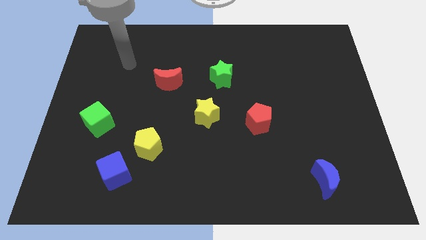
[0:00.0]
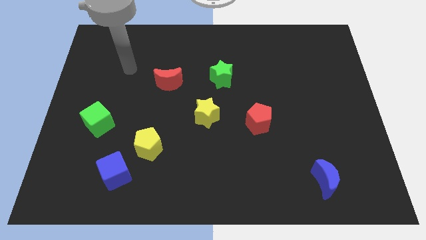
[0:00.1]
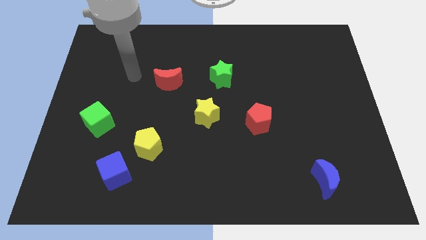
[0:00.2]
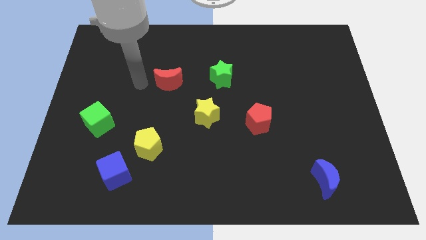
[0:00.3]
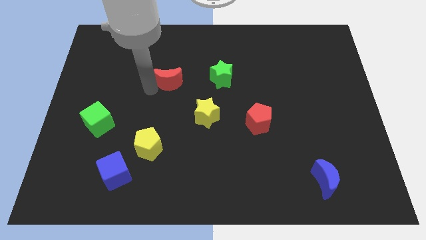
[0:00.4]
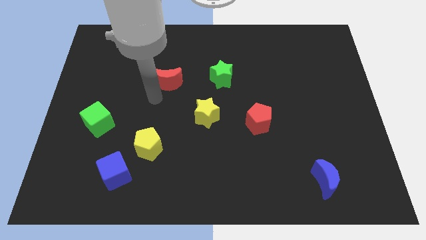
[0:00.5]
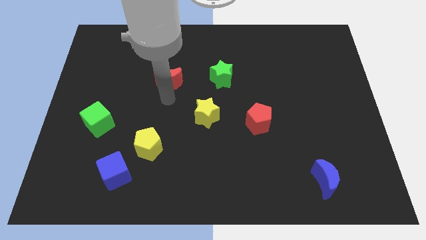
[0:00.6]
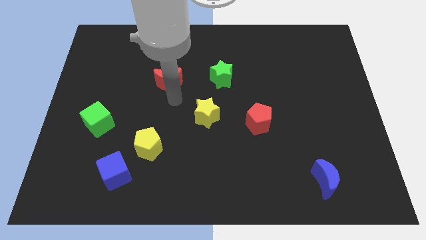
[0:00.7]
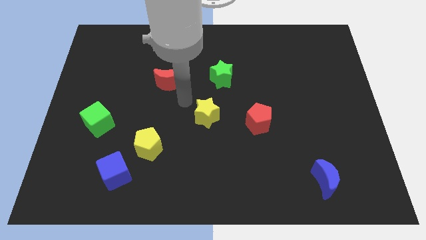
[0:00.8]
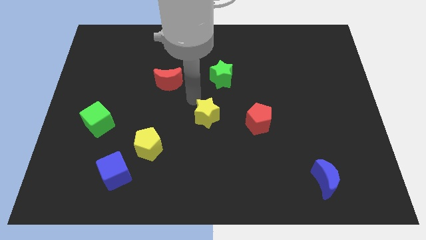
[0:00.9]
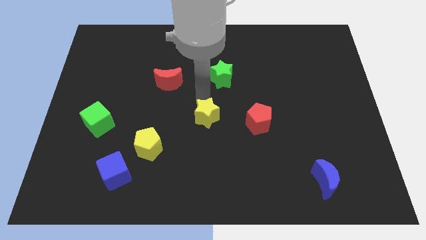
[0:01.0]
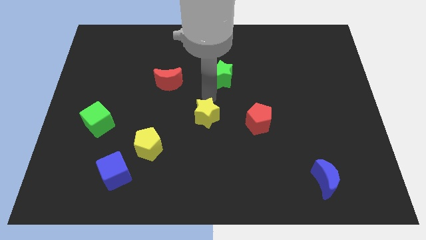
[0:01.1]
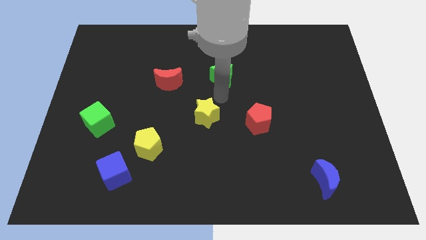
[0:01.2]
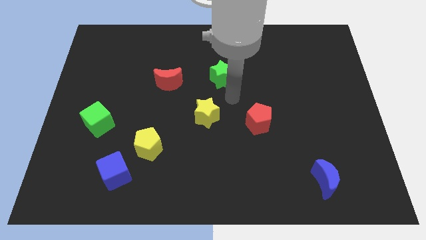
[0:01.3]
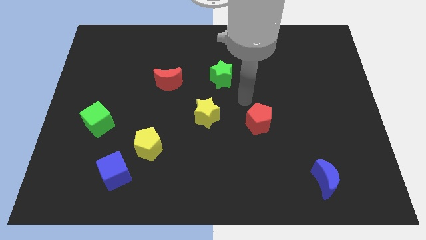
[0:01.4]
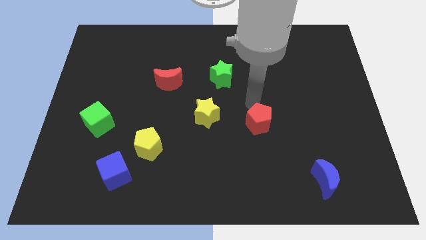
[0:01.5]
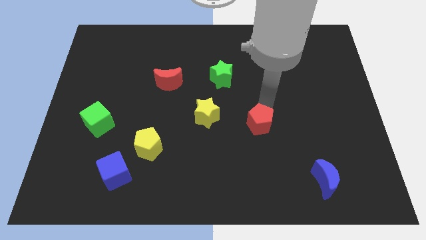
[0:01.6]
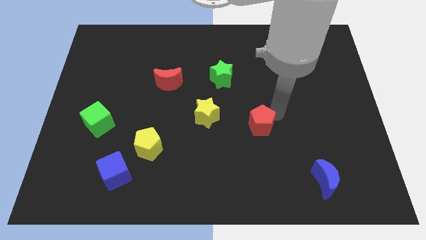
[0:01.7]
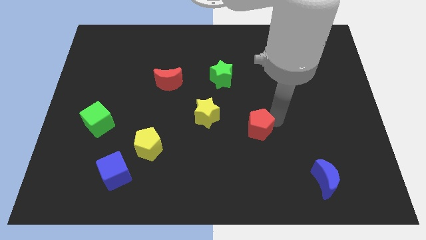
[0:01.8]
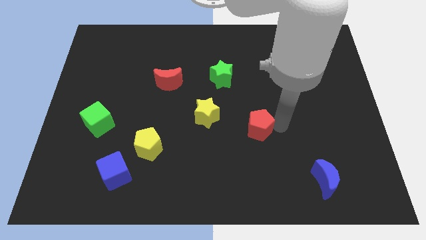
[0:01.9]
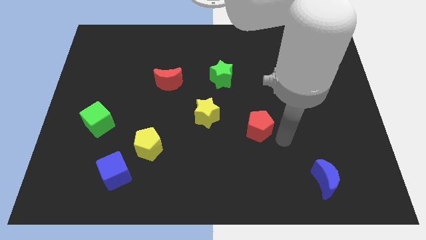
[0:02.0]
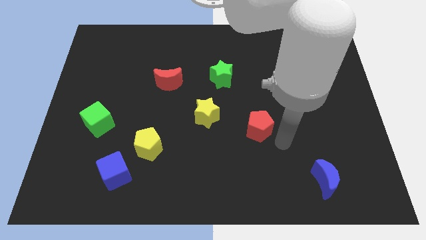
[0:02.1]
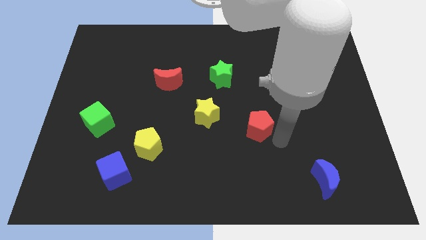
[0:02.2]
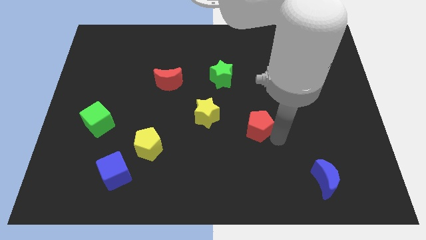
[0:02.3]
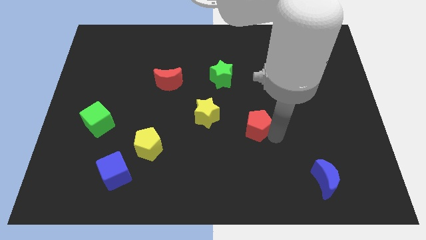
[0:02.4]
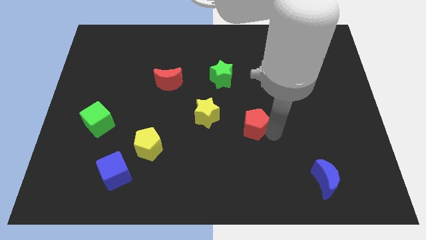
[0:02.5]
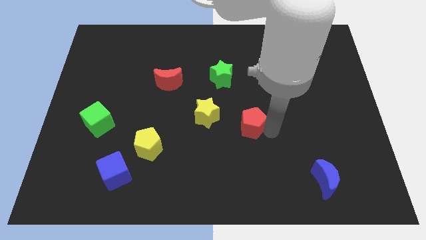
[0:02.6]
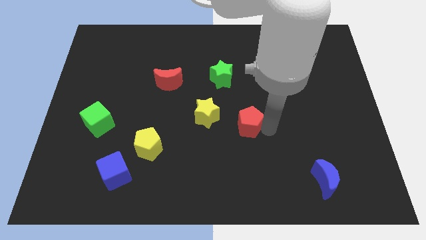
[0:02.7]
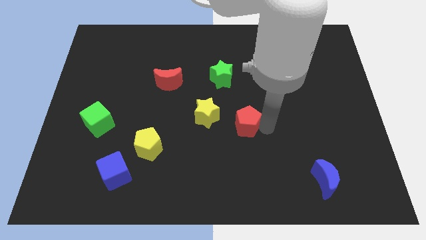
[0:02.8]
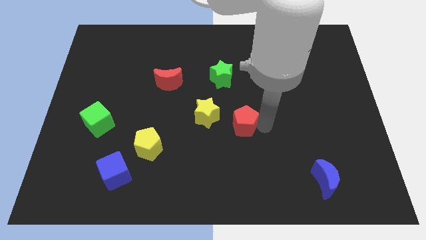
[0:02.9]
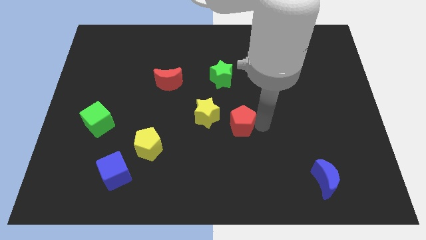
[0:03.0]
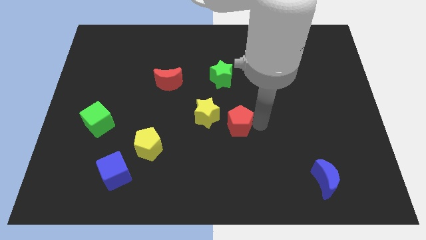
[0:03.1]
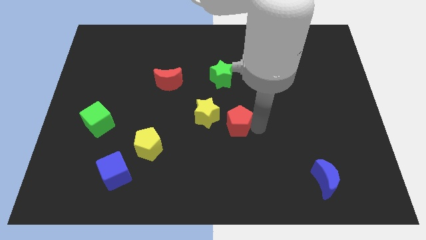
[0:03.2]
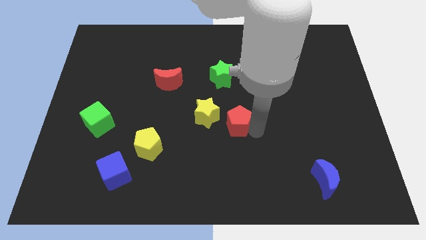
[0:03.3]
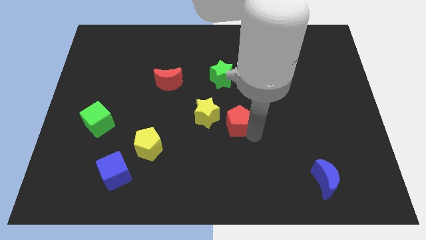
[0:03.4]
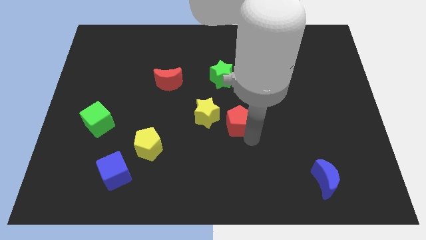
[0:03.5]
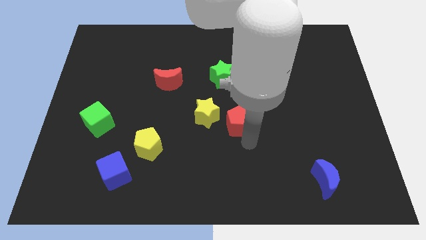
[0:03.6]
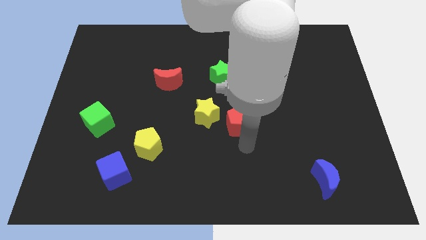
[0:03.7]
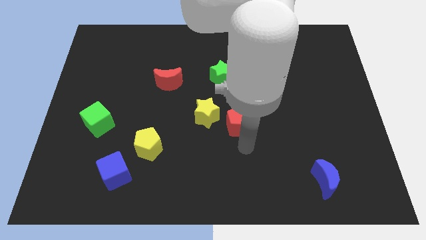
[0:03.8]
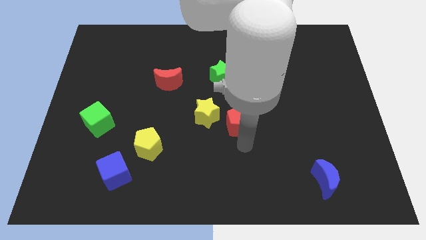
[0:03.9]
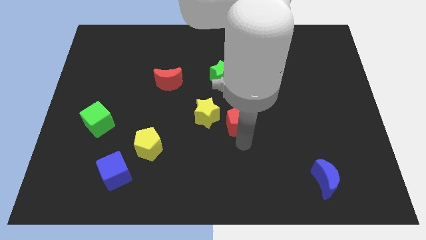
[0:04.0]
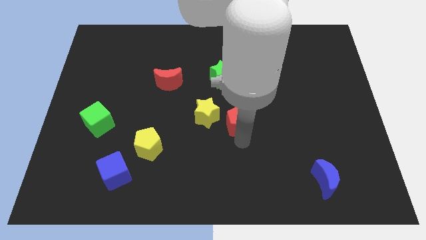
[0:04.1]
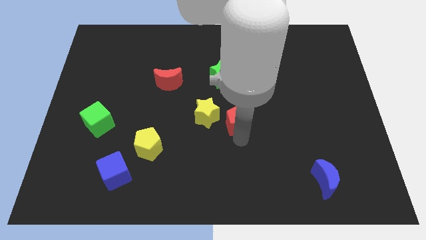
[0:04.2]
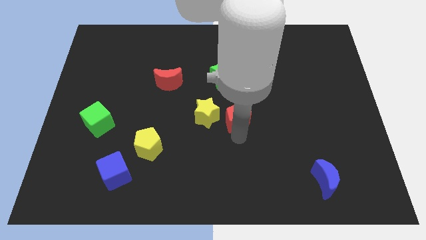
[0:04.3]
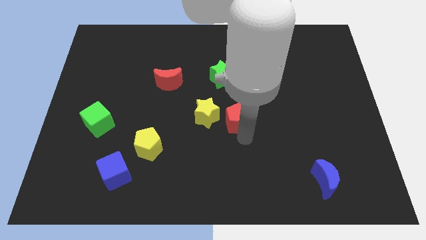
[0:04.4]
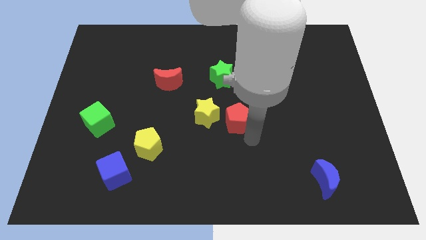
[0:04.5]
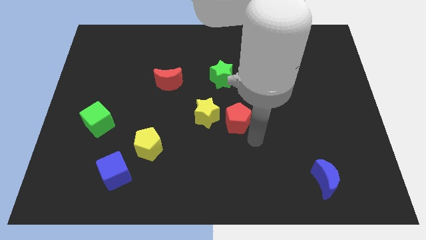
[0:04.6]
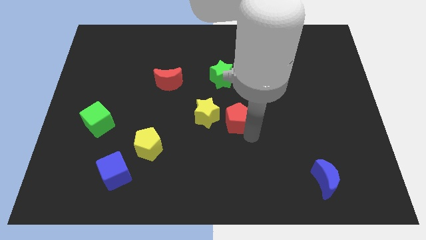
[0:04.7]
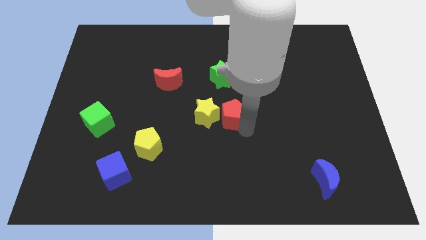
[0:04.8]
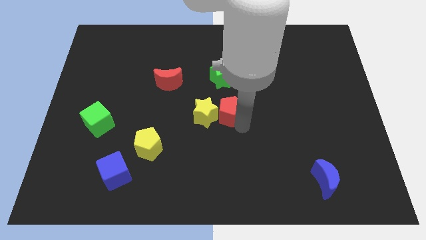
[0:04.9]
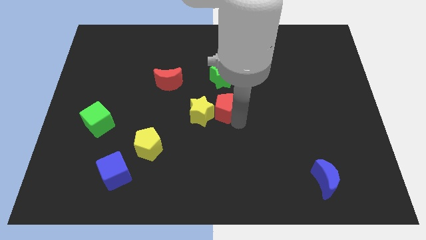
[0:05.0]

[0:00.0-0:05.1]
slightly slide the red pentagon upwards and then to the left

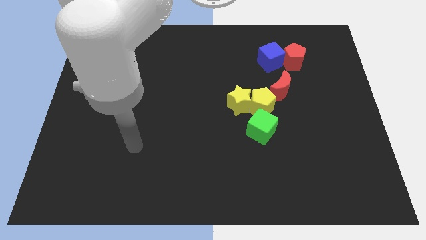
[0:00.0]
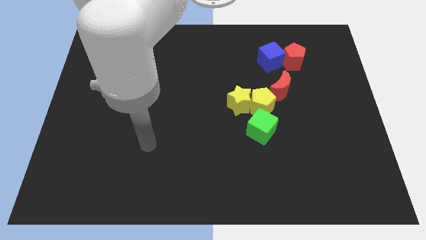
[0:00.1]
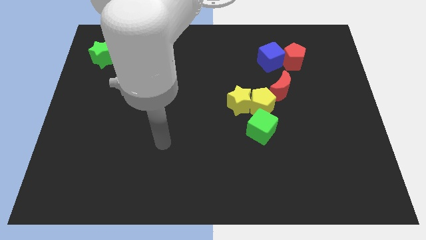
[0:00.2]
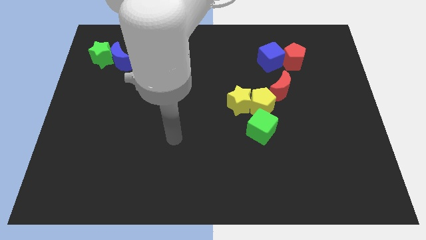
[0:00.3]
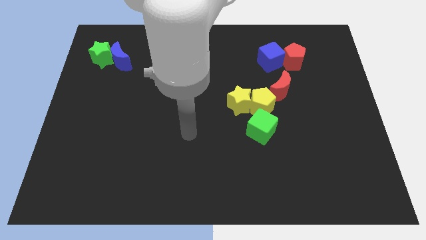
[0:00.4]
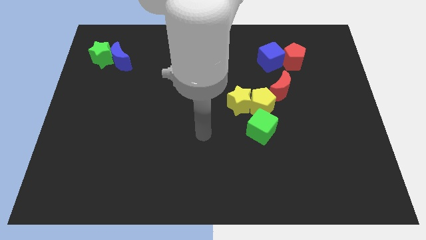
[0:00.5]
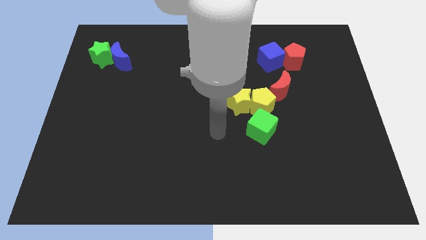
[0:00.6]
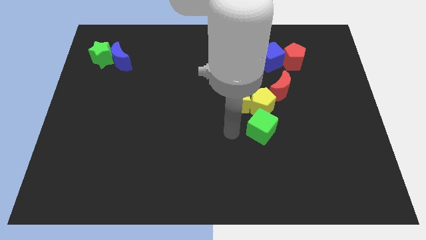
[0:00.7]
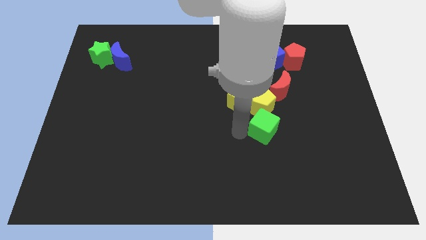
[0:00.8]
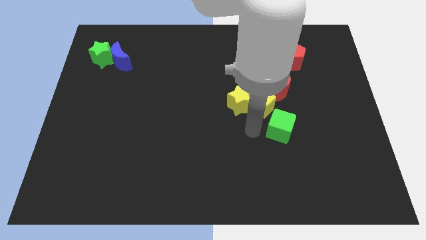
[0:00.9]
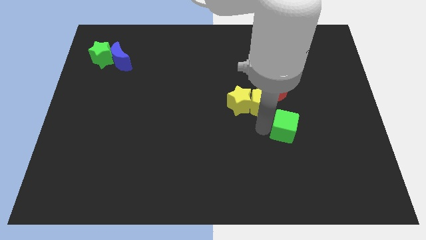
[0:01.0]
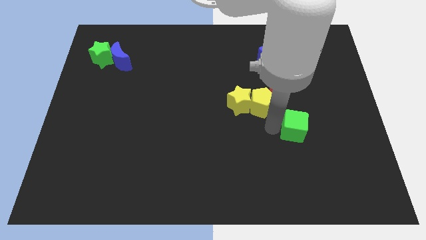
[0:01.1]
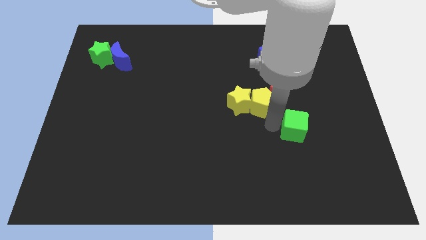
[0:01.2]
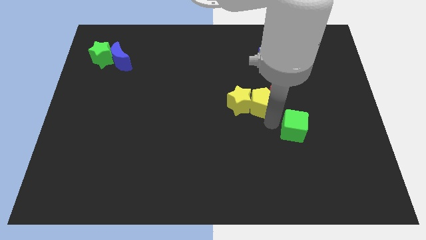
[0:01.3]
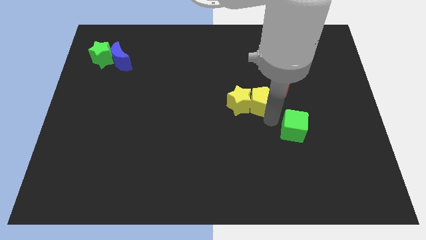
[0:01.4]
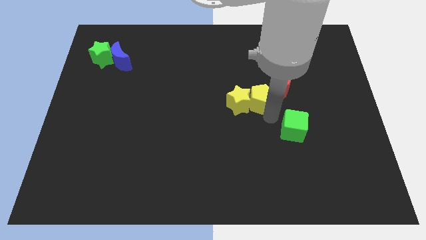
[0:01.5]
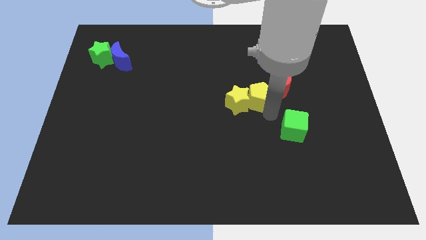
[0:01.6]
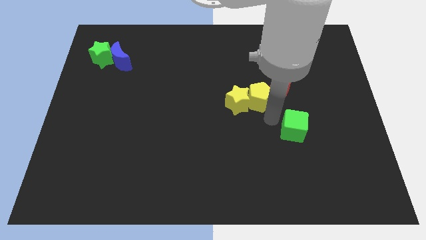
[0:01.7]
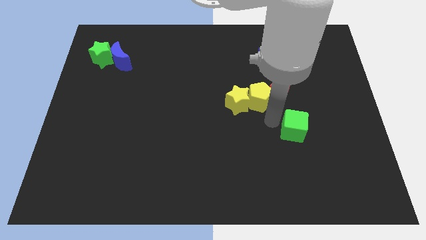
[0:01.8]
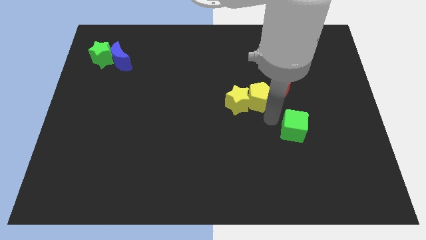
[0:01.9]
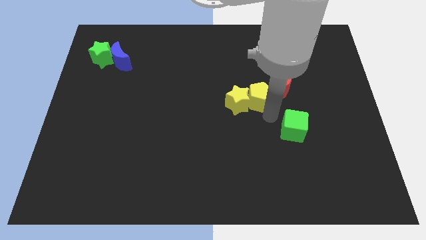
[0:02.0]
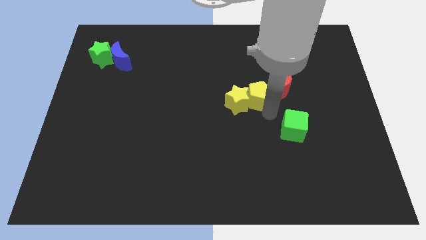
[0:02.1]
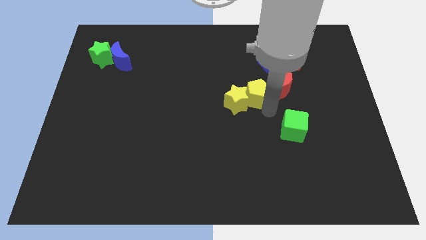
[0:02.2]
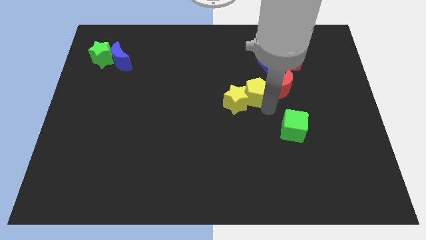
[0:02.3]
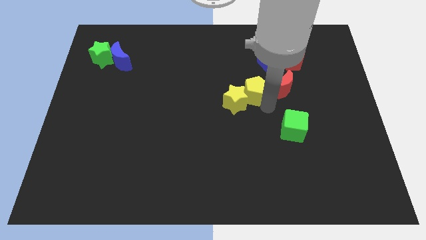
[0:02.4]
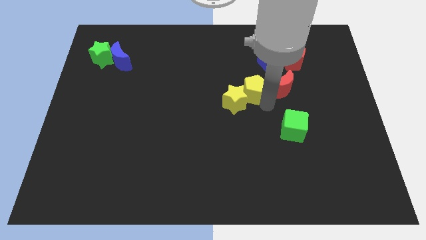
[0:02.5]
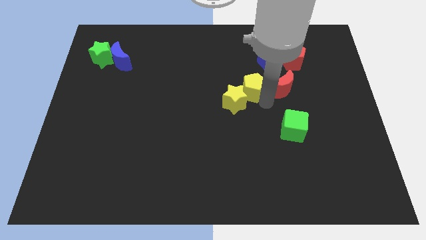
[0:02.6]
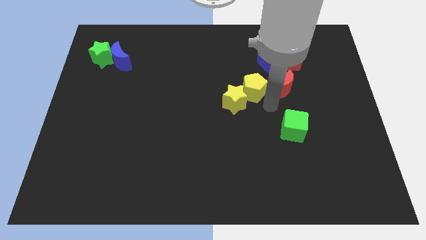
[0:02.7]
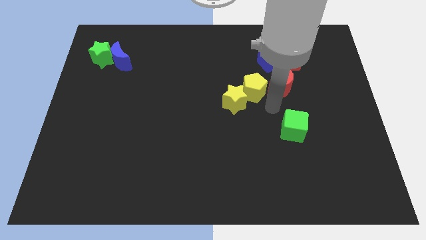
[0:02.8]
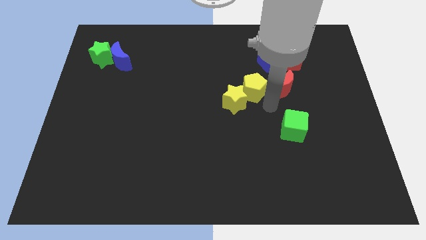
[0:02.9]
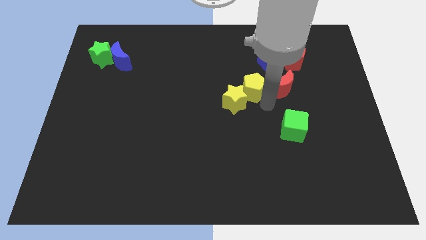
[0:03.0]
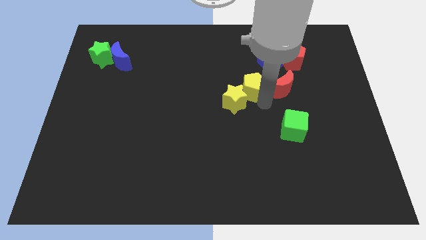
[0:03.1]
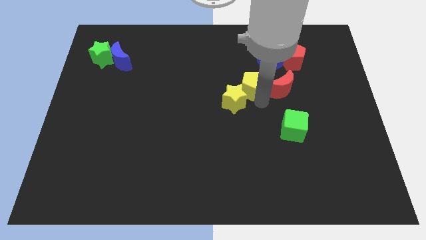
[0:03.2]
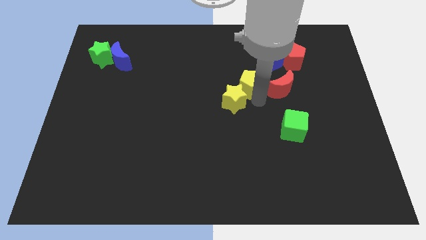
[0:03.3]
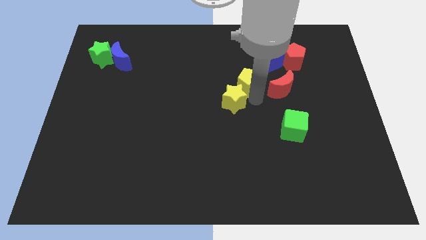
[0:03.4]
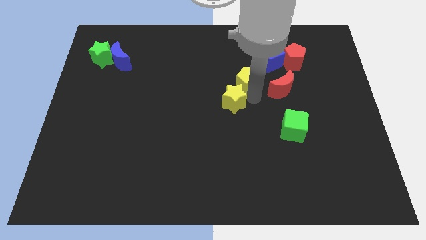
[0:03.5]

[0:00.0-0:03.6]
slide the yellow pentagon slightly up and to the left diagonally
